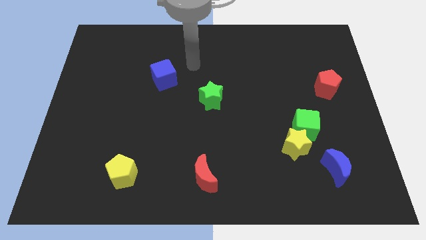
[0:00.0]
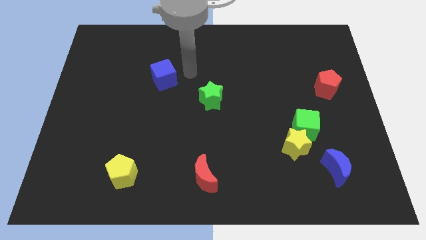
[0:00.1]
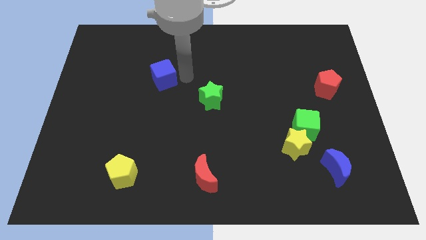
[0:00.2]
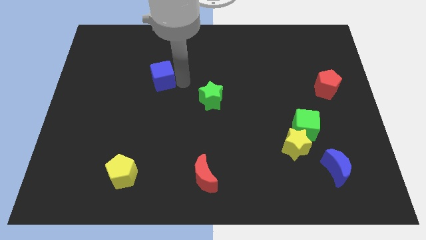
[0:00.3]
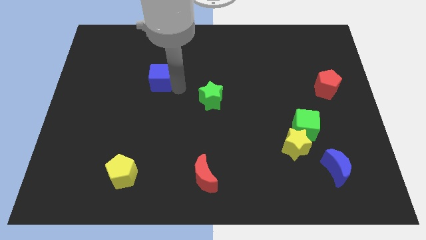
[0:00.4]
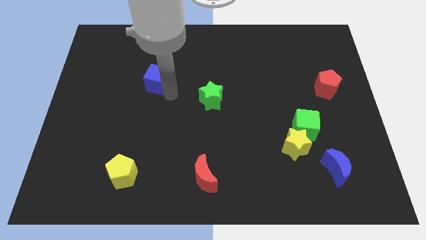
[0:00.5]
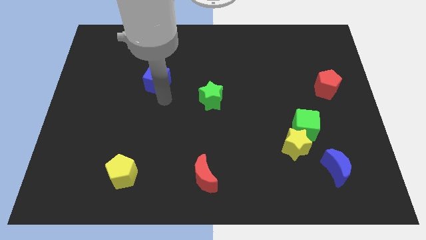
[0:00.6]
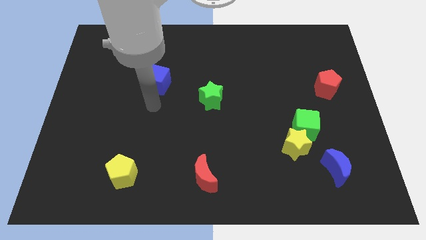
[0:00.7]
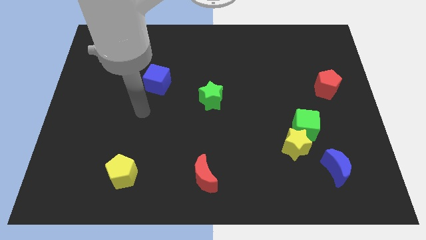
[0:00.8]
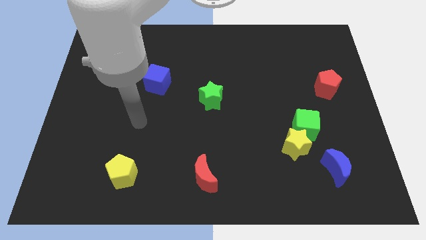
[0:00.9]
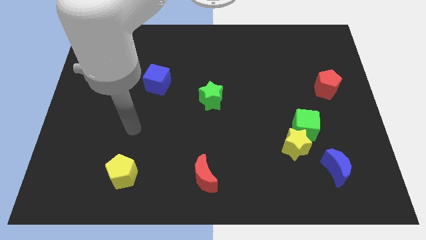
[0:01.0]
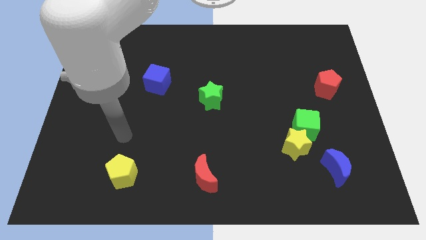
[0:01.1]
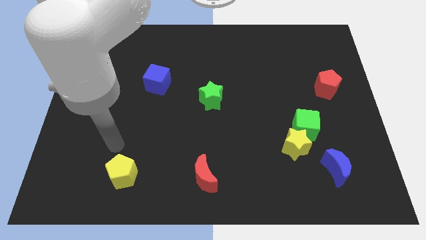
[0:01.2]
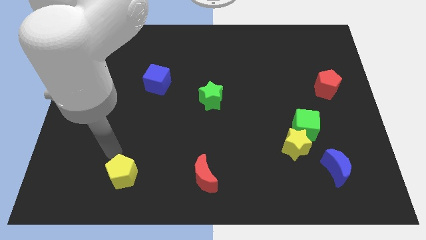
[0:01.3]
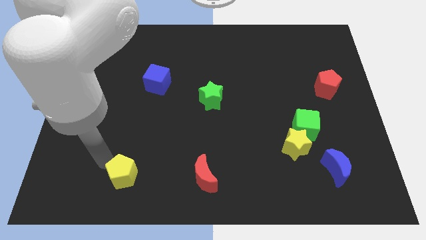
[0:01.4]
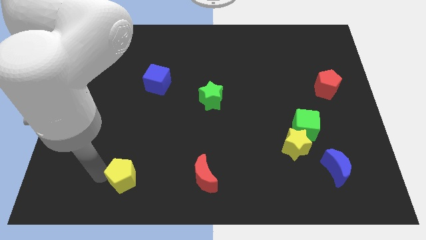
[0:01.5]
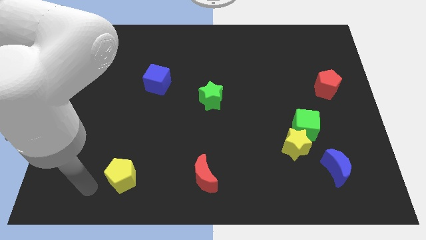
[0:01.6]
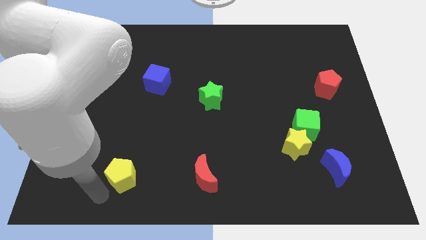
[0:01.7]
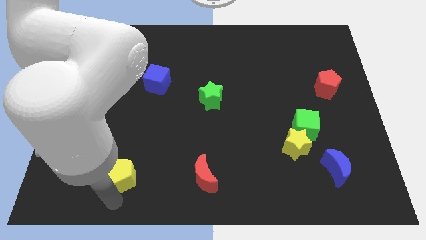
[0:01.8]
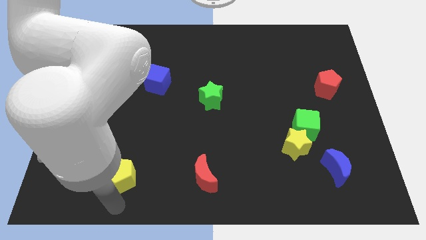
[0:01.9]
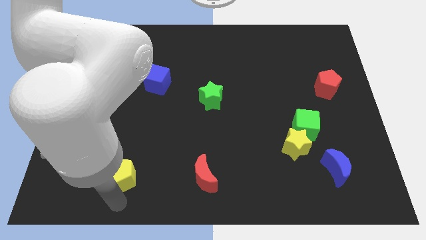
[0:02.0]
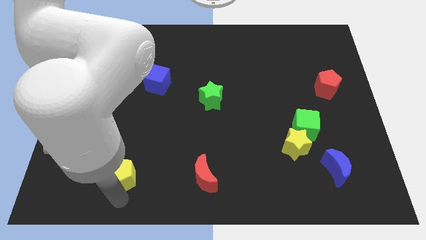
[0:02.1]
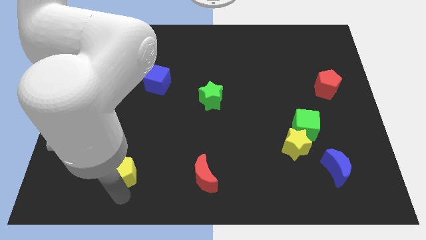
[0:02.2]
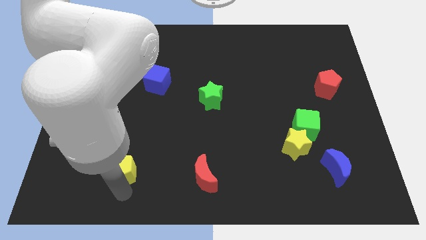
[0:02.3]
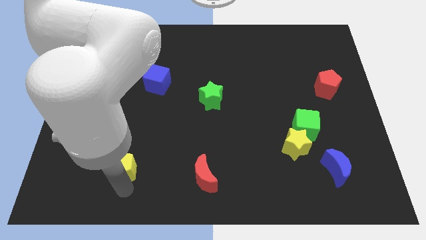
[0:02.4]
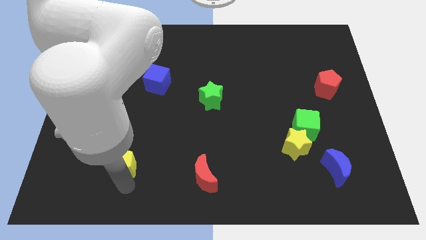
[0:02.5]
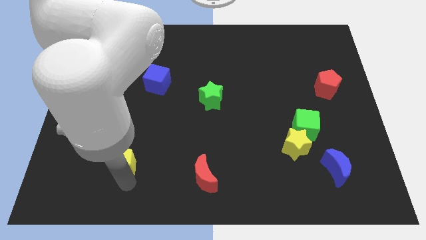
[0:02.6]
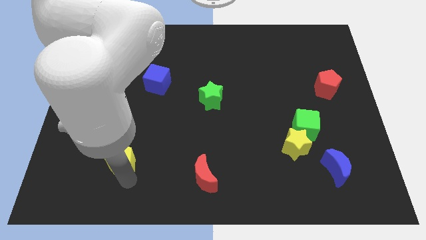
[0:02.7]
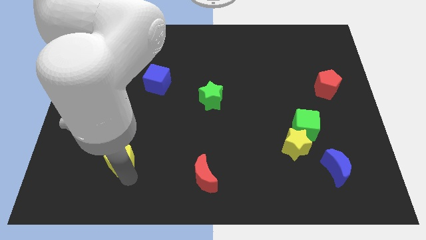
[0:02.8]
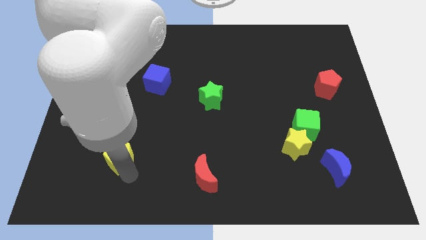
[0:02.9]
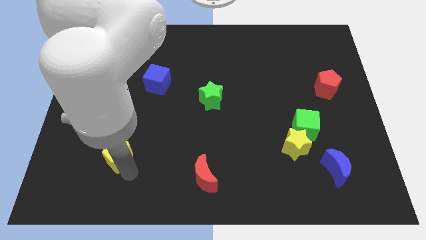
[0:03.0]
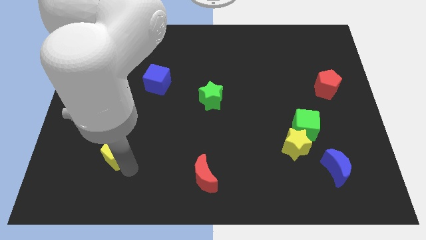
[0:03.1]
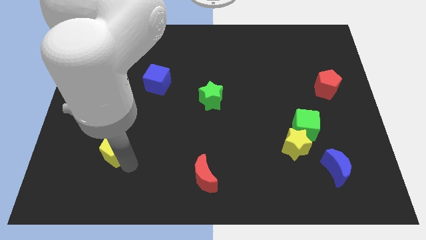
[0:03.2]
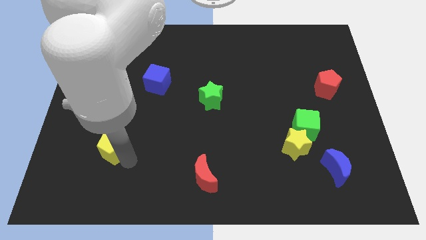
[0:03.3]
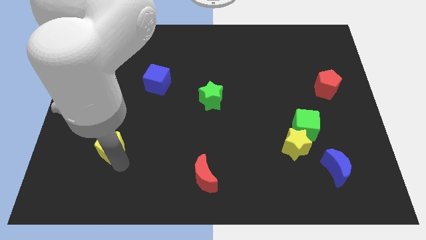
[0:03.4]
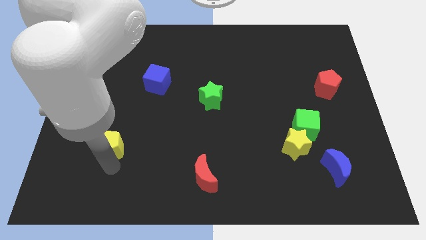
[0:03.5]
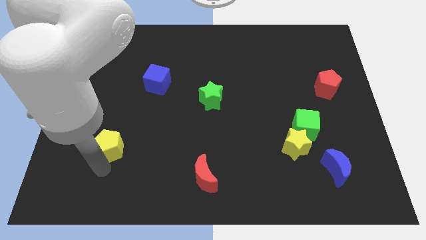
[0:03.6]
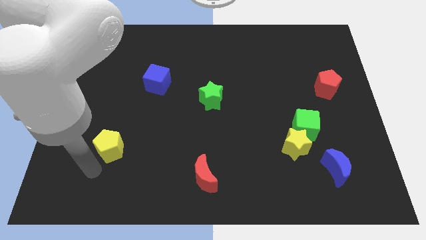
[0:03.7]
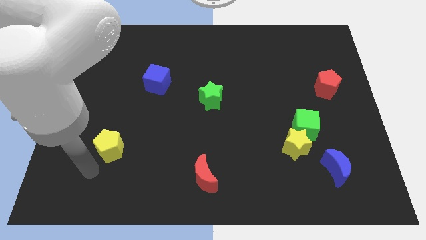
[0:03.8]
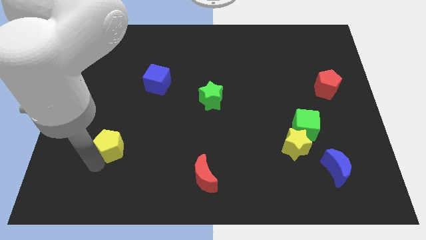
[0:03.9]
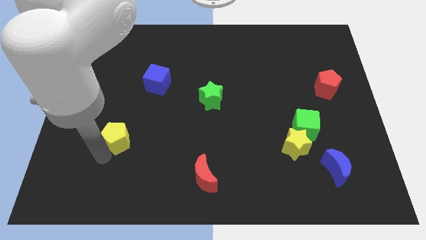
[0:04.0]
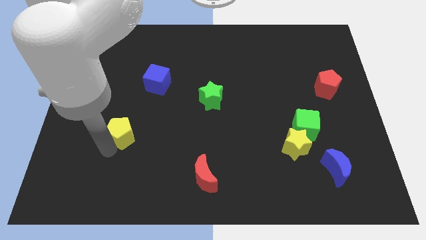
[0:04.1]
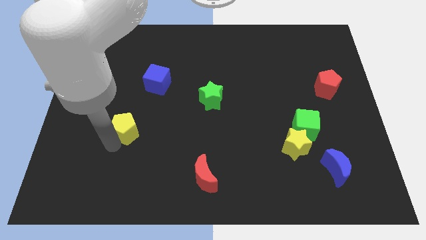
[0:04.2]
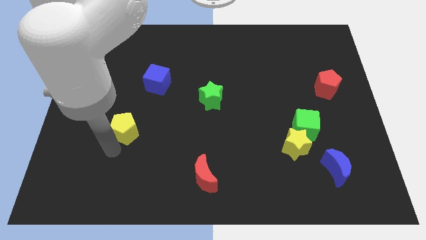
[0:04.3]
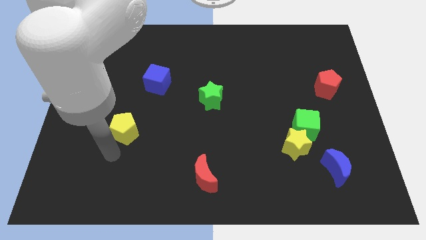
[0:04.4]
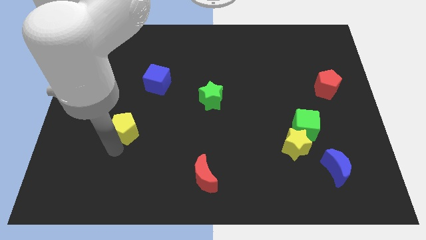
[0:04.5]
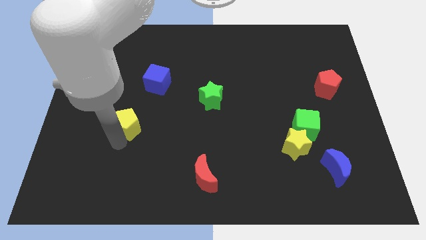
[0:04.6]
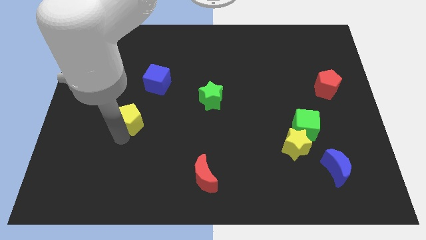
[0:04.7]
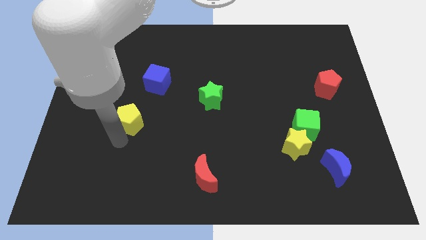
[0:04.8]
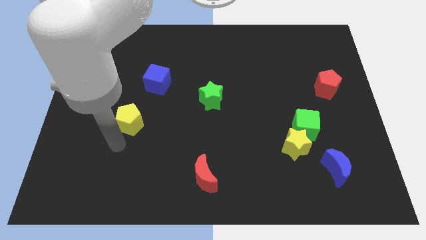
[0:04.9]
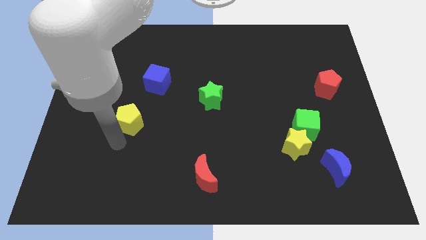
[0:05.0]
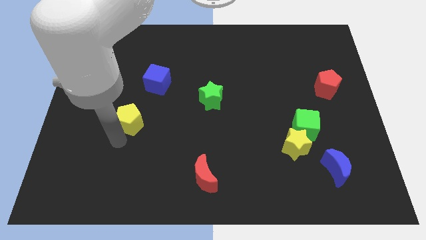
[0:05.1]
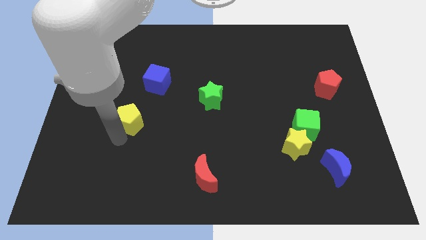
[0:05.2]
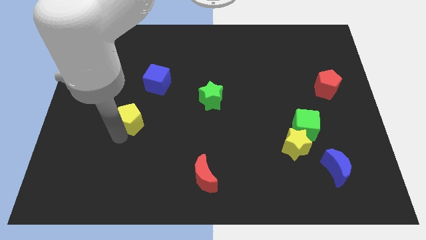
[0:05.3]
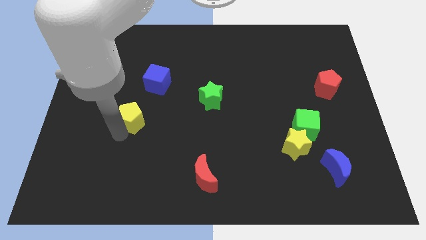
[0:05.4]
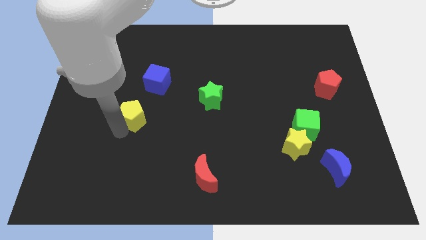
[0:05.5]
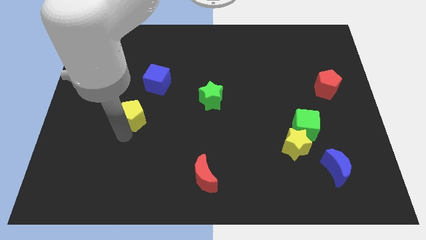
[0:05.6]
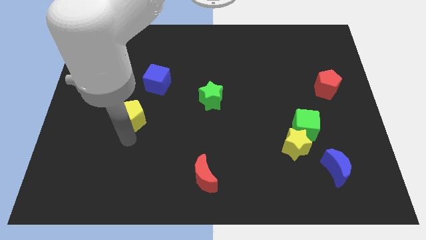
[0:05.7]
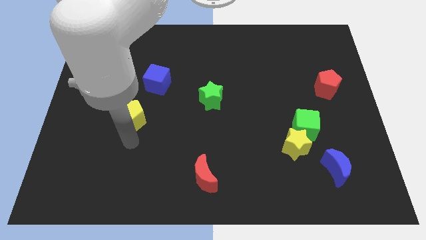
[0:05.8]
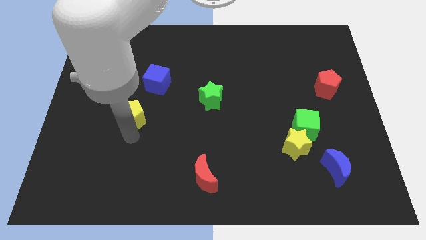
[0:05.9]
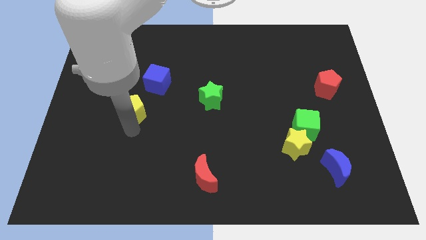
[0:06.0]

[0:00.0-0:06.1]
put the yellow pentagon to the bottom left of the blue cube

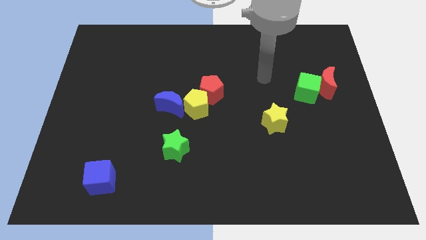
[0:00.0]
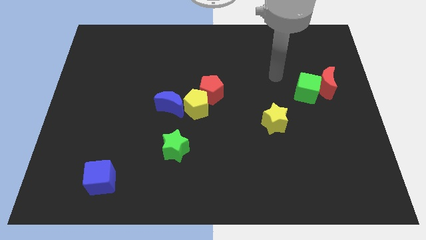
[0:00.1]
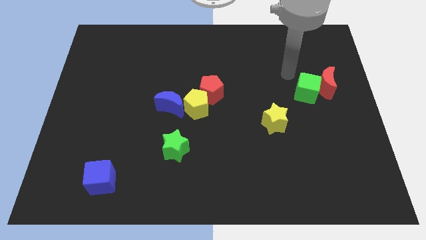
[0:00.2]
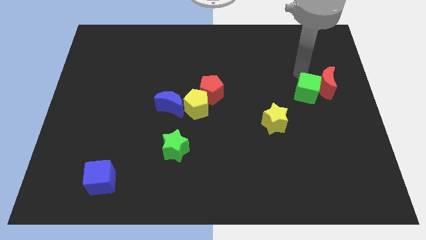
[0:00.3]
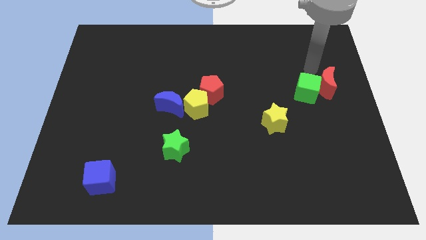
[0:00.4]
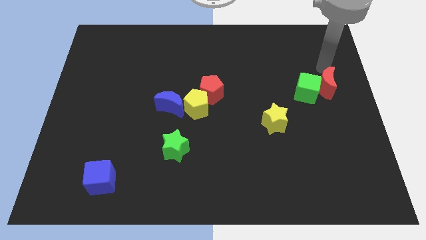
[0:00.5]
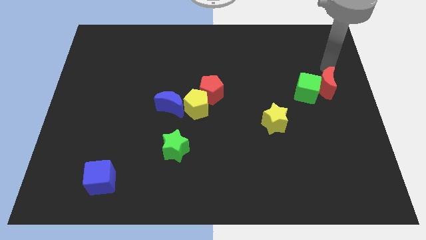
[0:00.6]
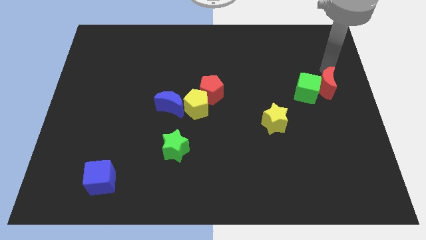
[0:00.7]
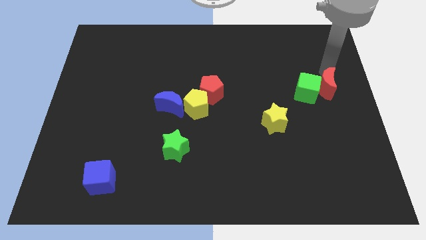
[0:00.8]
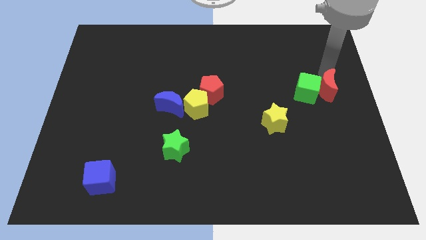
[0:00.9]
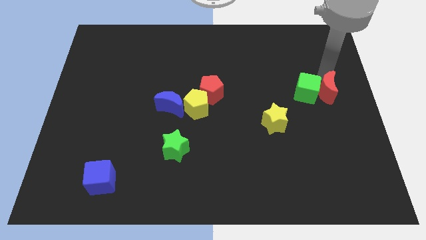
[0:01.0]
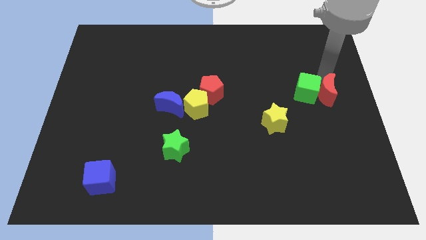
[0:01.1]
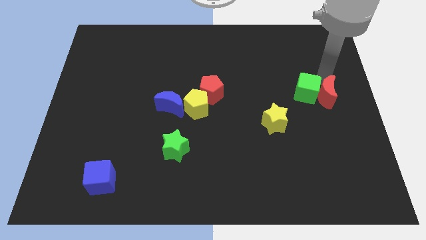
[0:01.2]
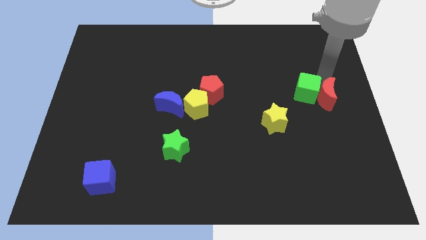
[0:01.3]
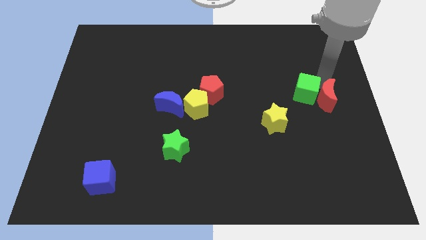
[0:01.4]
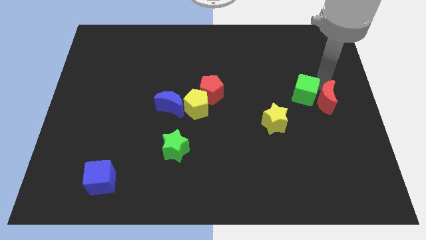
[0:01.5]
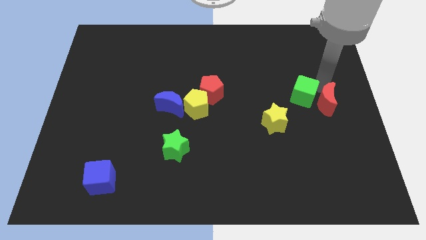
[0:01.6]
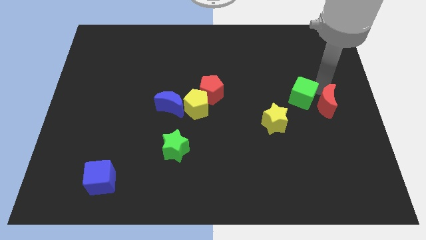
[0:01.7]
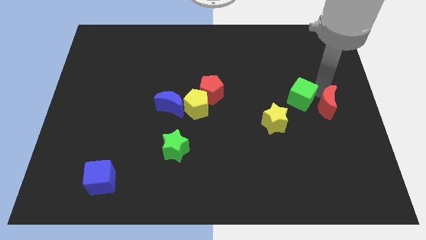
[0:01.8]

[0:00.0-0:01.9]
put the red moon to the right of the yellow star
